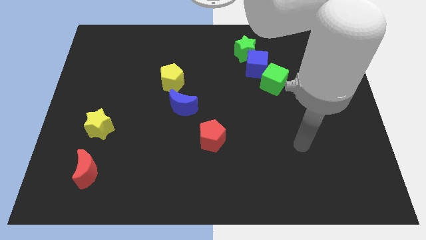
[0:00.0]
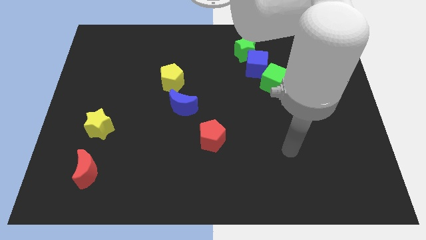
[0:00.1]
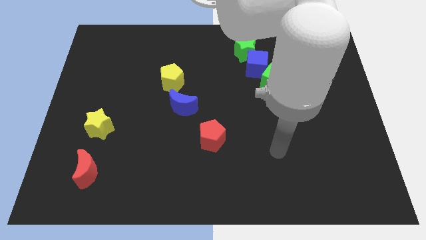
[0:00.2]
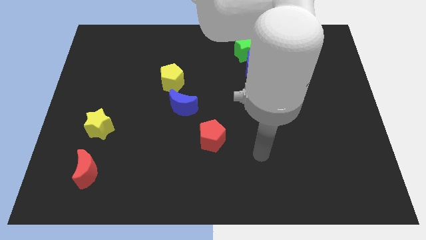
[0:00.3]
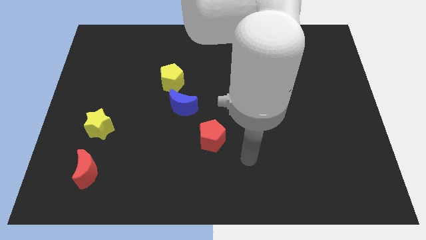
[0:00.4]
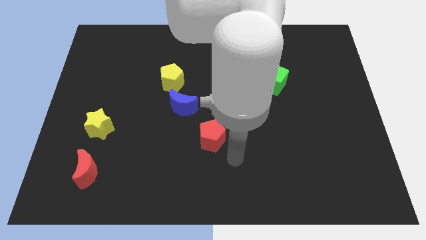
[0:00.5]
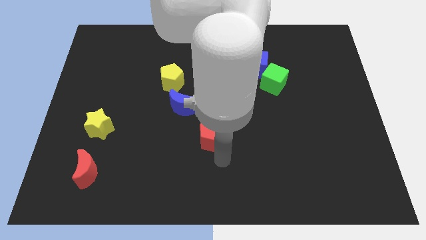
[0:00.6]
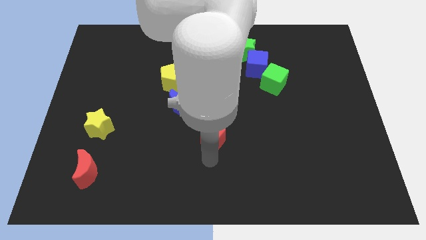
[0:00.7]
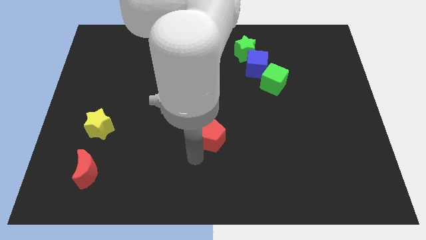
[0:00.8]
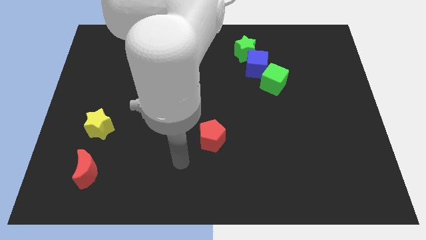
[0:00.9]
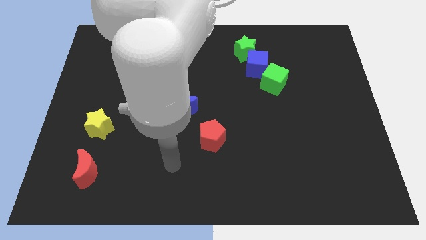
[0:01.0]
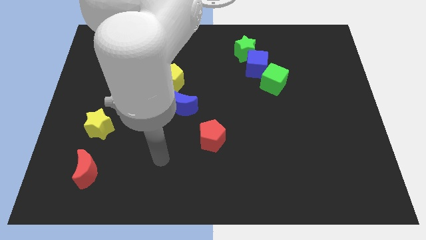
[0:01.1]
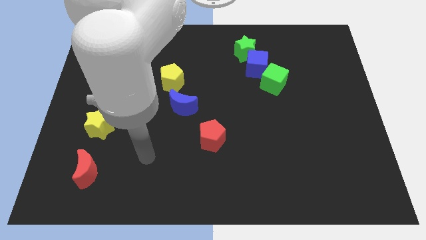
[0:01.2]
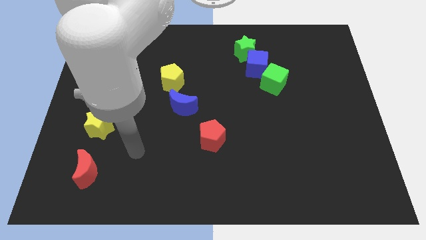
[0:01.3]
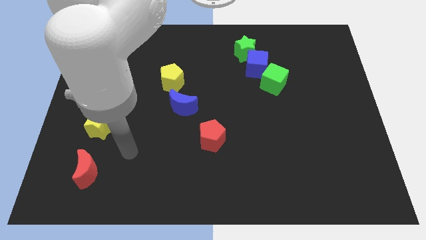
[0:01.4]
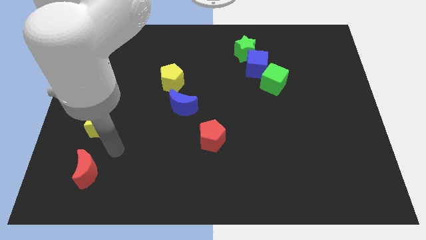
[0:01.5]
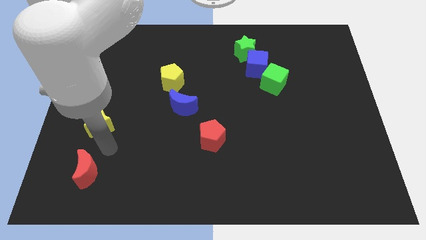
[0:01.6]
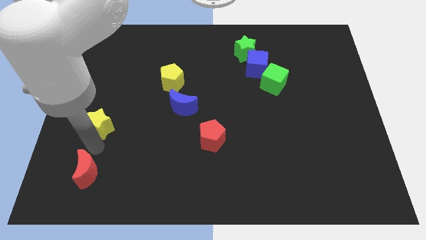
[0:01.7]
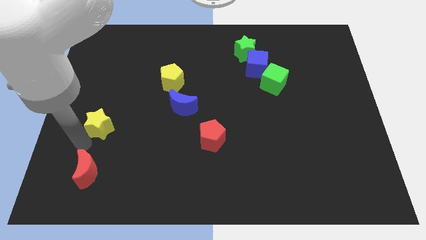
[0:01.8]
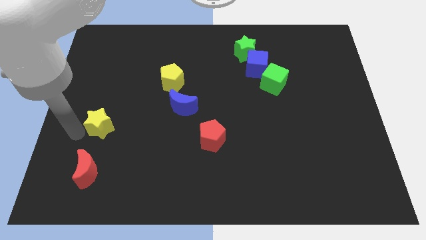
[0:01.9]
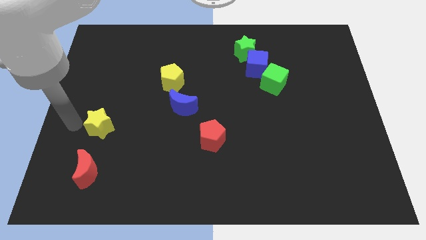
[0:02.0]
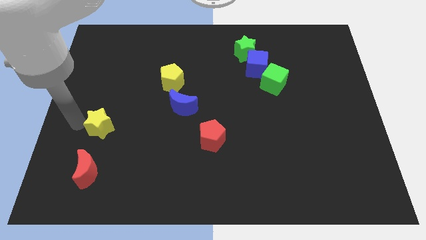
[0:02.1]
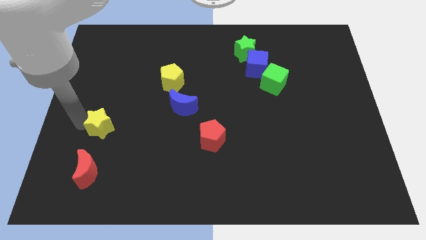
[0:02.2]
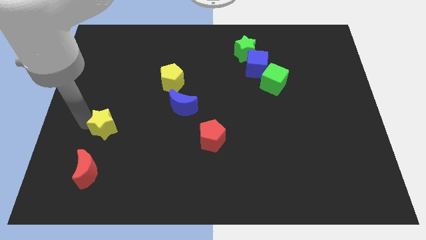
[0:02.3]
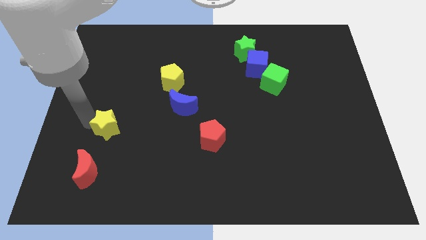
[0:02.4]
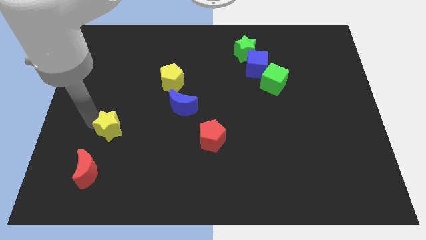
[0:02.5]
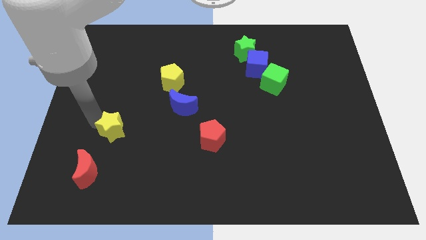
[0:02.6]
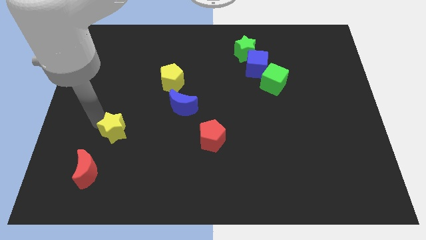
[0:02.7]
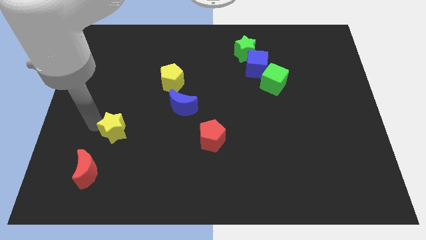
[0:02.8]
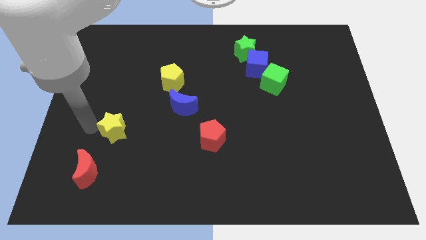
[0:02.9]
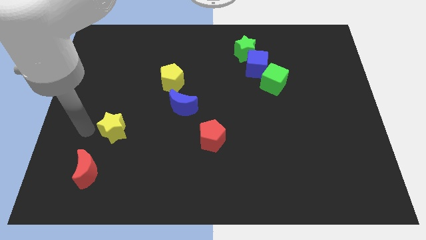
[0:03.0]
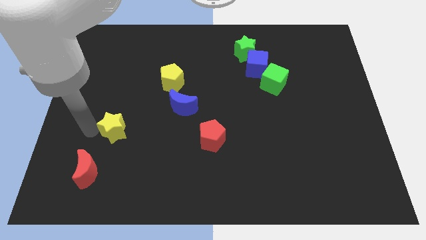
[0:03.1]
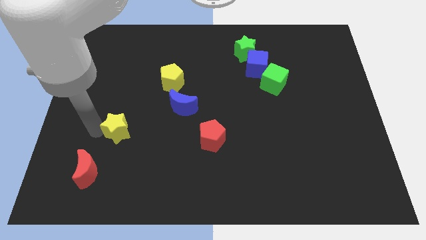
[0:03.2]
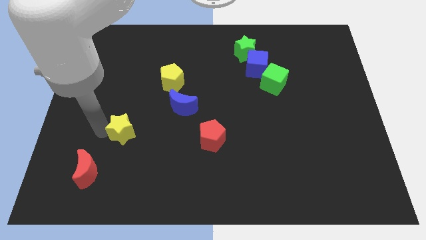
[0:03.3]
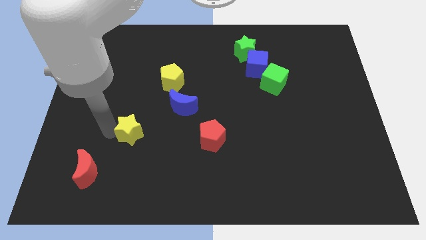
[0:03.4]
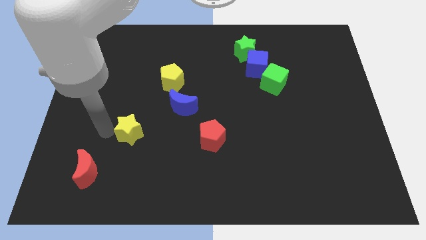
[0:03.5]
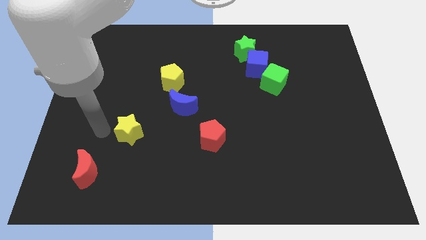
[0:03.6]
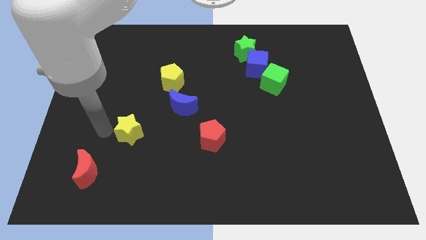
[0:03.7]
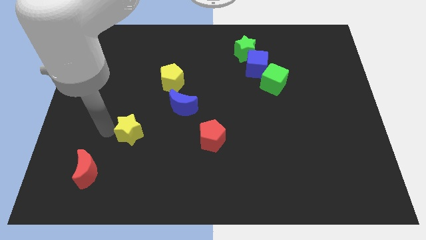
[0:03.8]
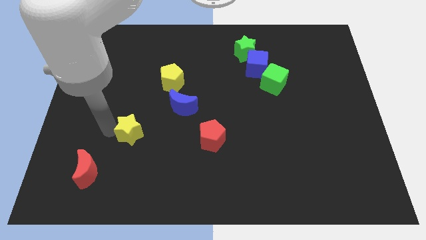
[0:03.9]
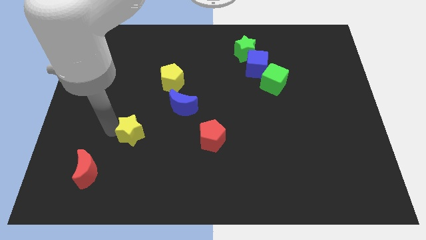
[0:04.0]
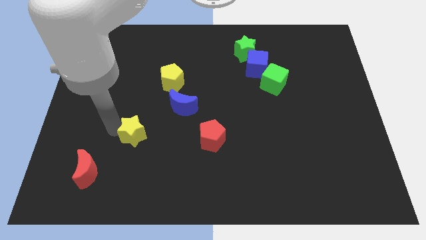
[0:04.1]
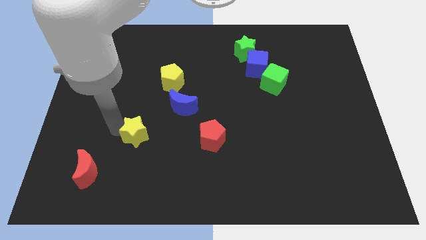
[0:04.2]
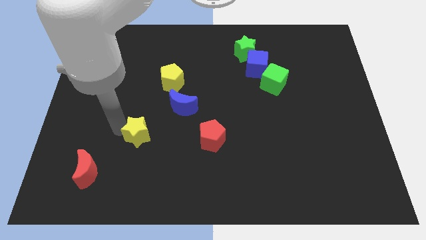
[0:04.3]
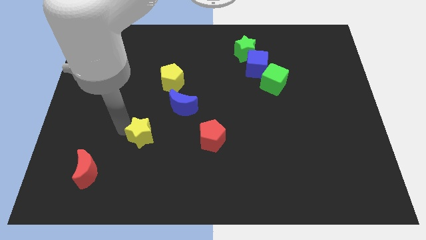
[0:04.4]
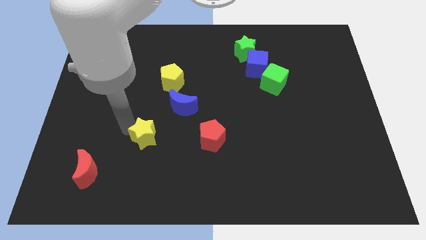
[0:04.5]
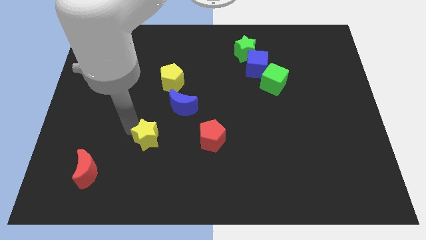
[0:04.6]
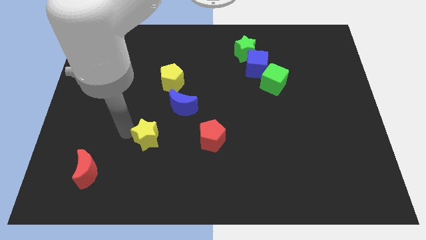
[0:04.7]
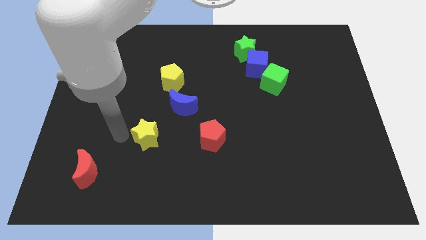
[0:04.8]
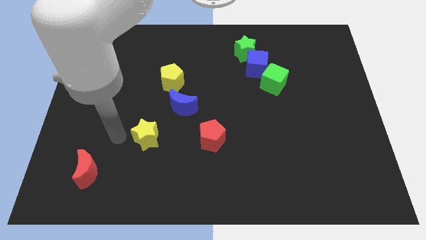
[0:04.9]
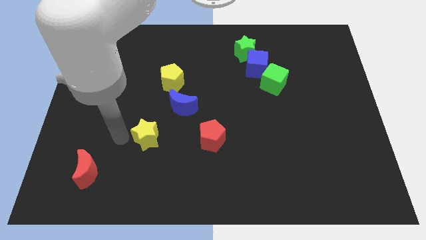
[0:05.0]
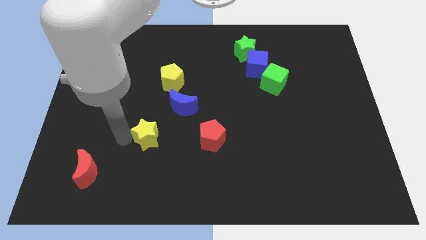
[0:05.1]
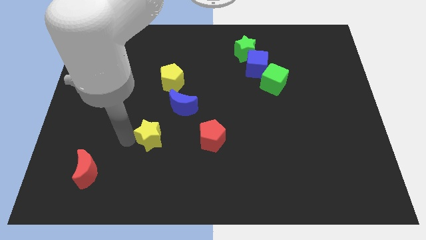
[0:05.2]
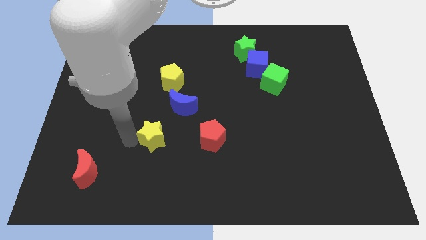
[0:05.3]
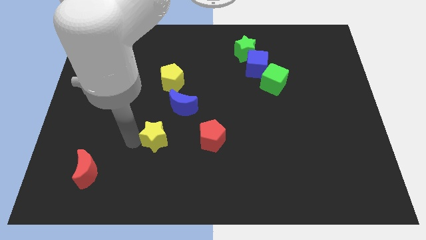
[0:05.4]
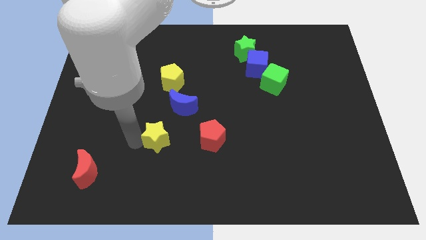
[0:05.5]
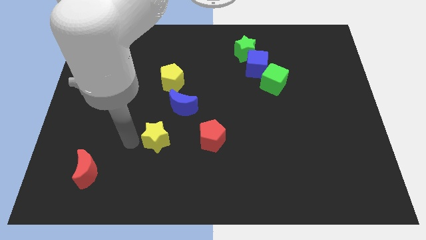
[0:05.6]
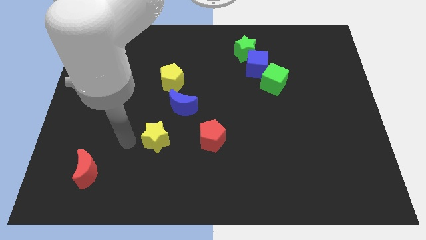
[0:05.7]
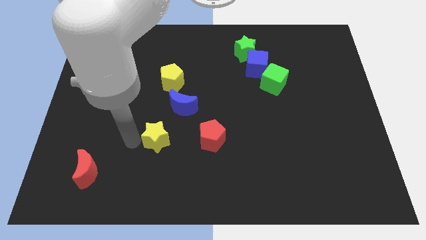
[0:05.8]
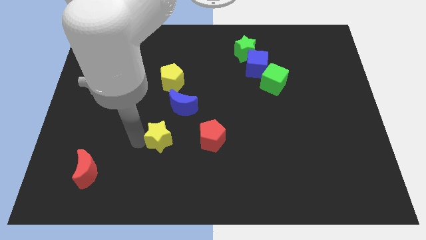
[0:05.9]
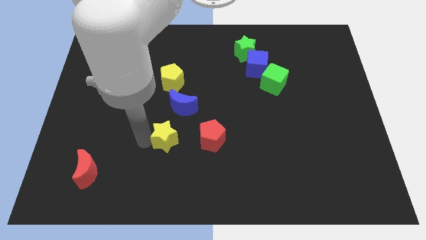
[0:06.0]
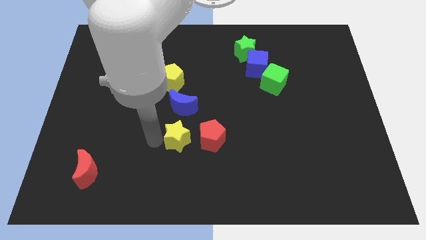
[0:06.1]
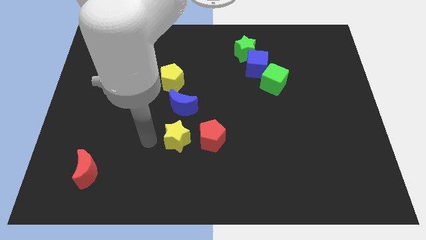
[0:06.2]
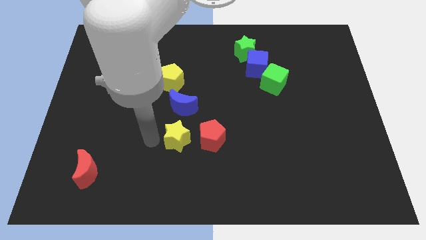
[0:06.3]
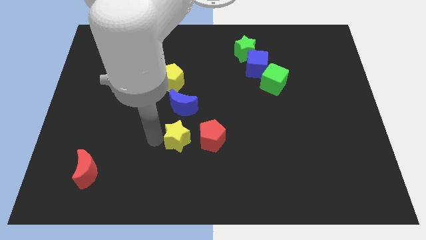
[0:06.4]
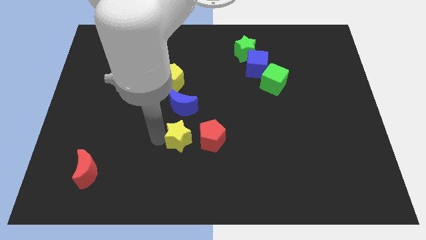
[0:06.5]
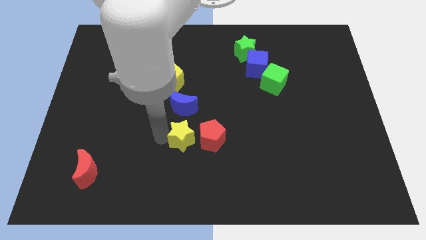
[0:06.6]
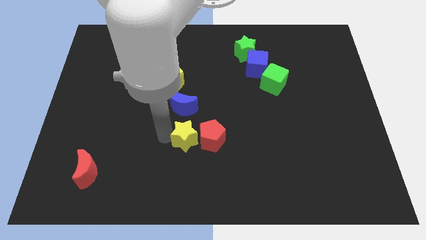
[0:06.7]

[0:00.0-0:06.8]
slide the yellow star next to the red pentagon

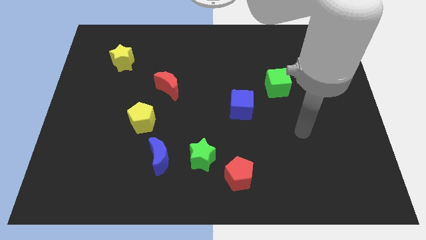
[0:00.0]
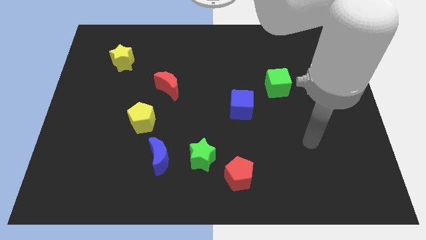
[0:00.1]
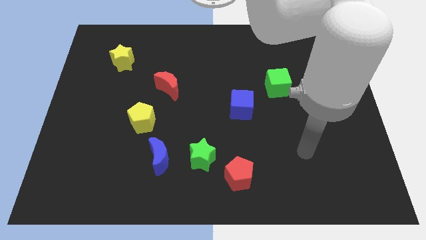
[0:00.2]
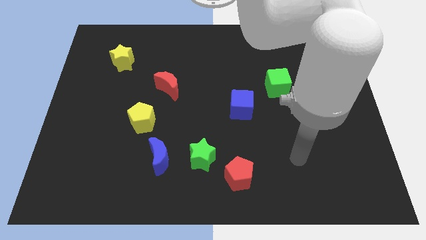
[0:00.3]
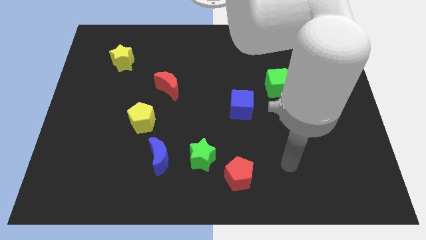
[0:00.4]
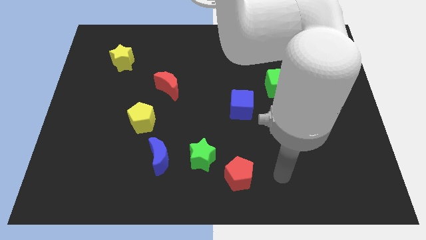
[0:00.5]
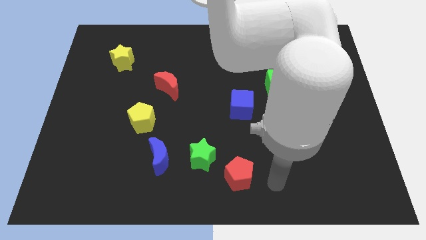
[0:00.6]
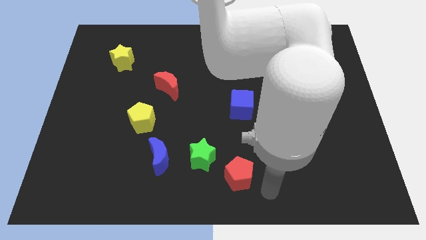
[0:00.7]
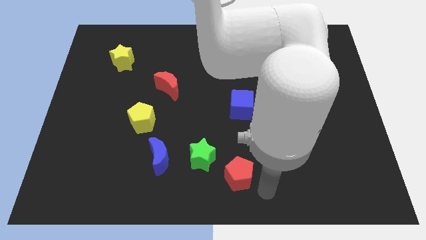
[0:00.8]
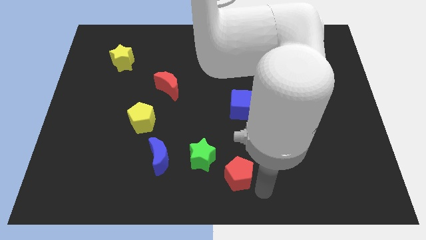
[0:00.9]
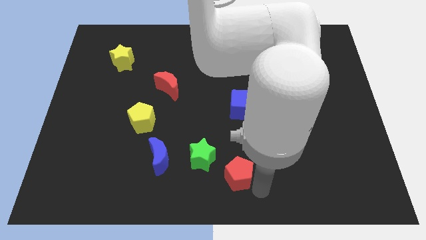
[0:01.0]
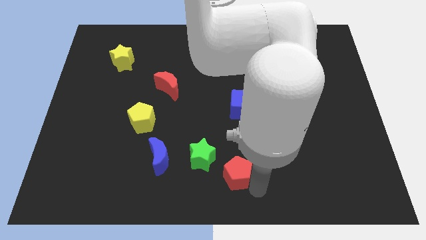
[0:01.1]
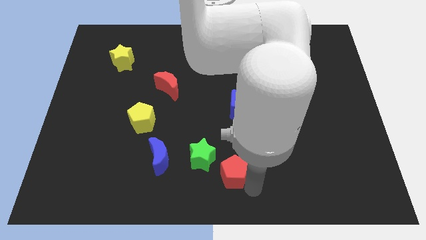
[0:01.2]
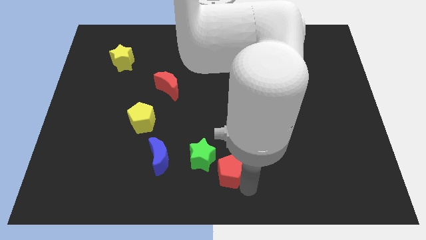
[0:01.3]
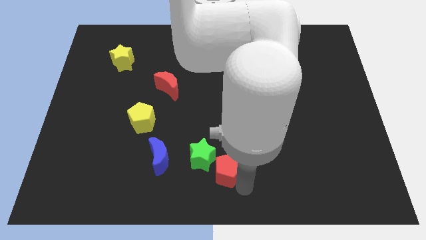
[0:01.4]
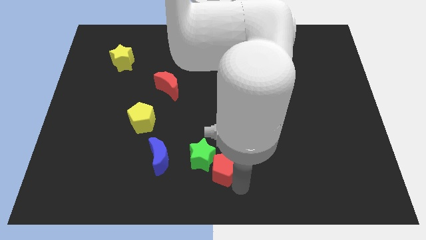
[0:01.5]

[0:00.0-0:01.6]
put the red pentagon next to the green star
